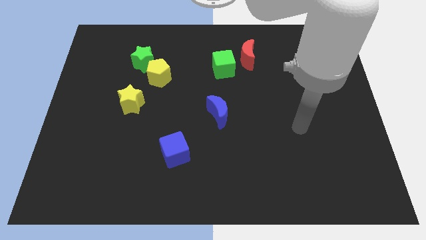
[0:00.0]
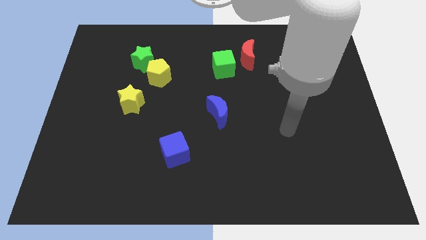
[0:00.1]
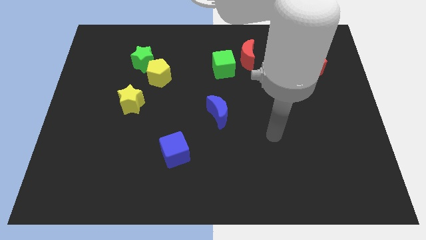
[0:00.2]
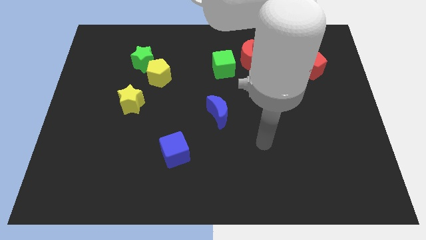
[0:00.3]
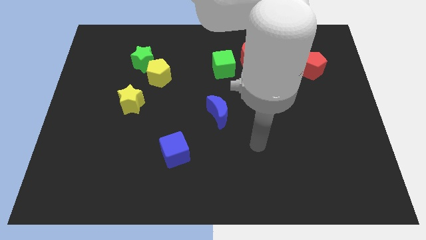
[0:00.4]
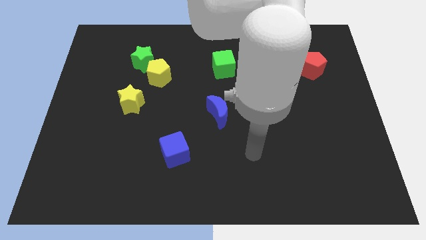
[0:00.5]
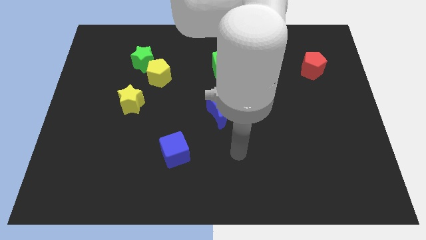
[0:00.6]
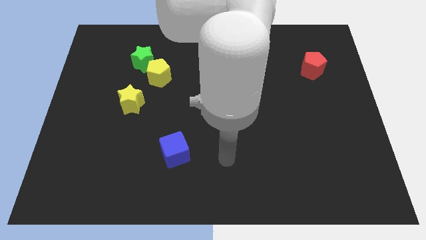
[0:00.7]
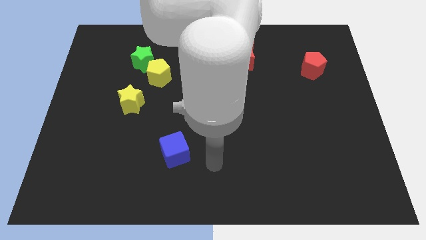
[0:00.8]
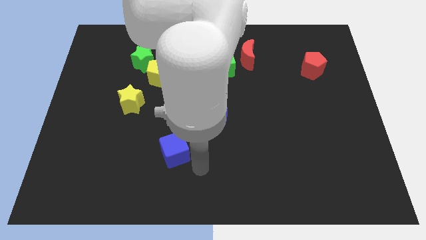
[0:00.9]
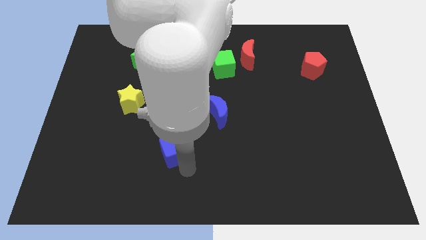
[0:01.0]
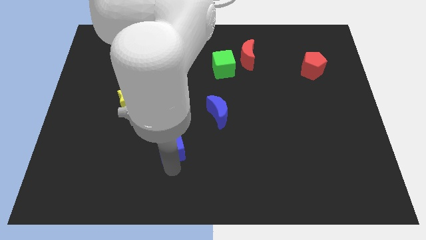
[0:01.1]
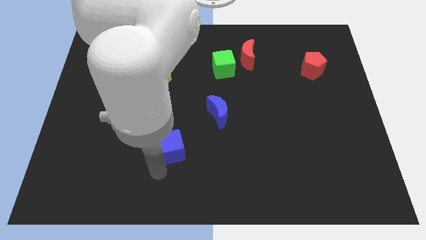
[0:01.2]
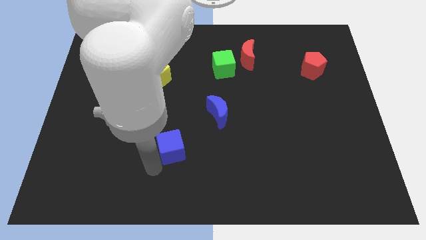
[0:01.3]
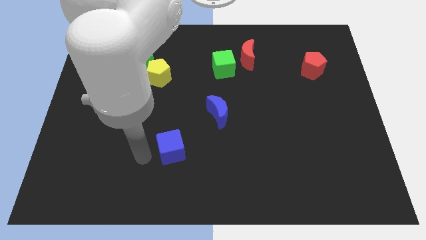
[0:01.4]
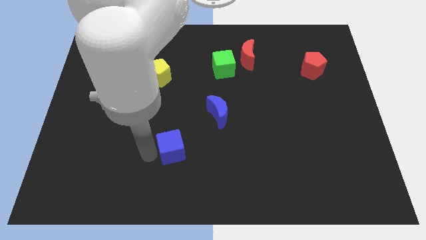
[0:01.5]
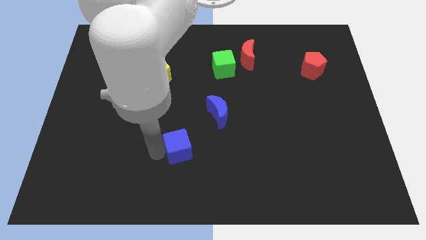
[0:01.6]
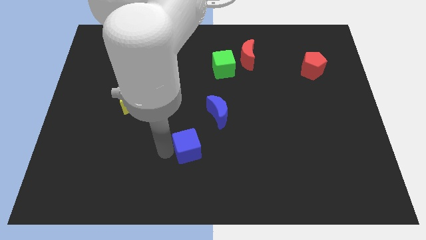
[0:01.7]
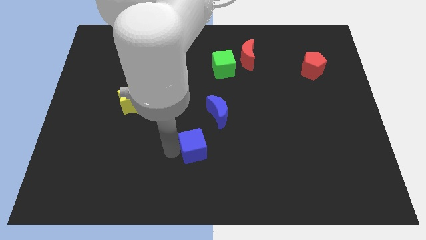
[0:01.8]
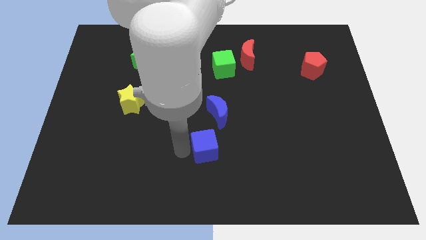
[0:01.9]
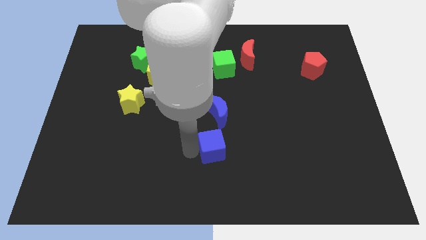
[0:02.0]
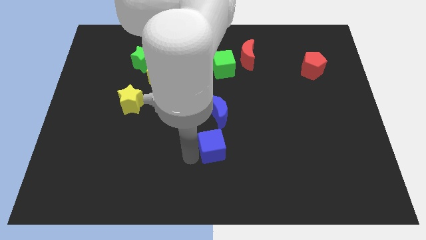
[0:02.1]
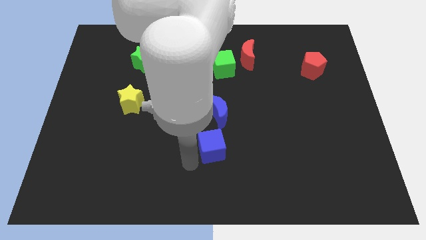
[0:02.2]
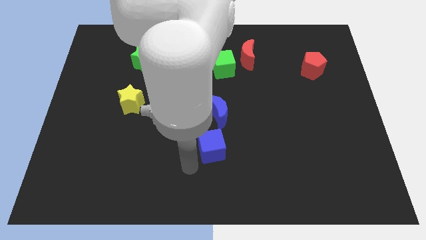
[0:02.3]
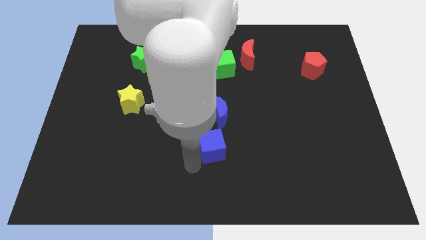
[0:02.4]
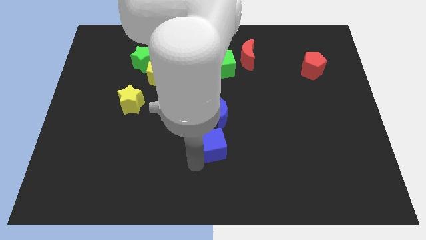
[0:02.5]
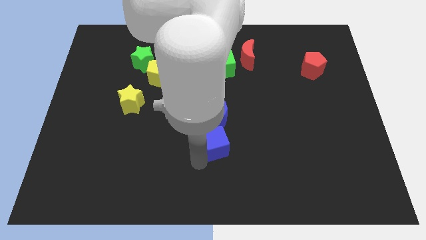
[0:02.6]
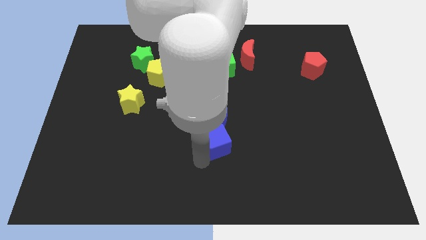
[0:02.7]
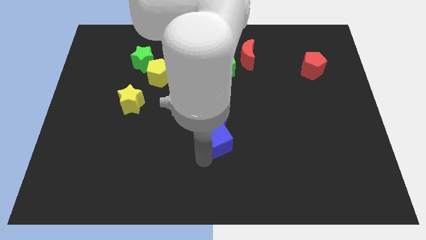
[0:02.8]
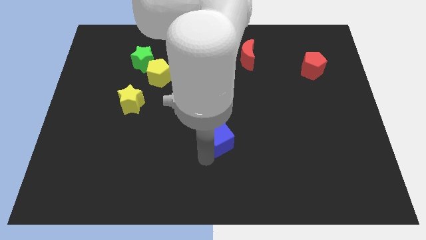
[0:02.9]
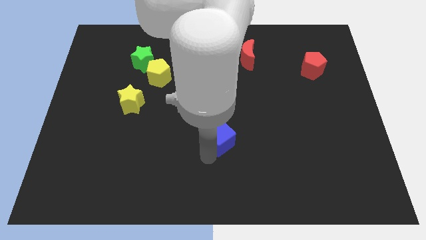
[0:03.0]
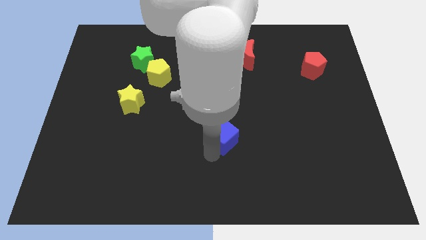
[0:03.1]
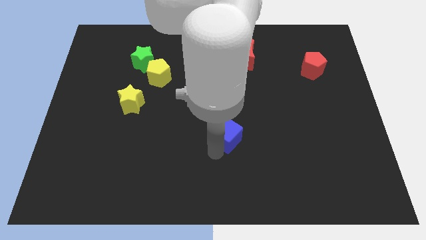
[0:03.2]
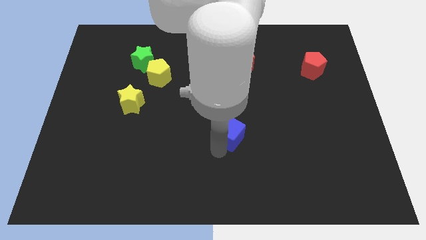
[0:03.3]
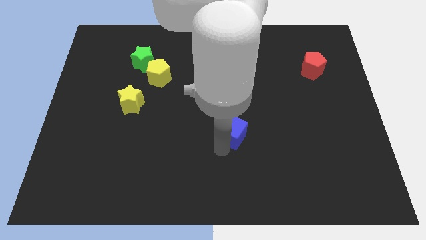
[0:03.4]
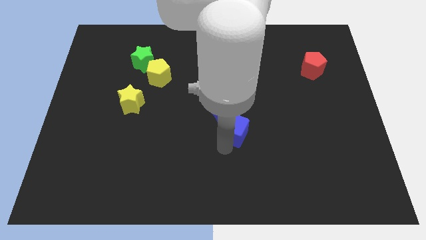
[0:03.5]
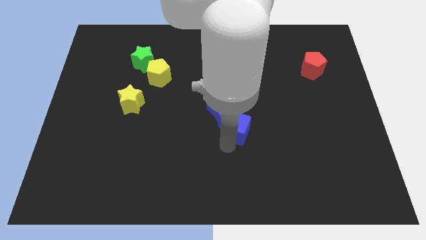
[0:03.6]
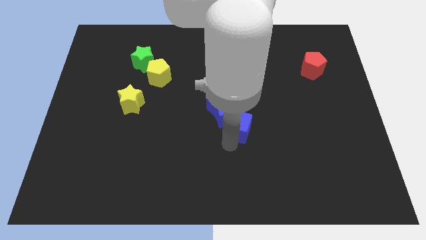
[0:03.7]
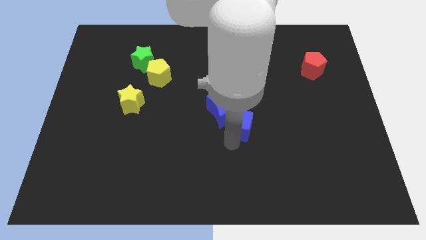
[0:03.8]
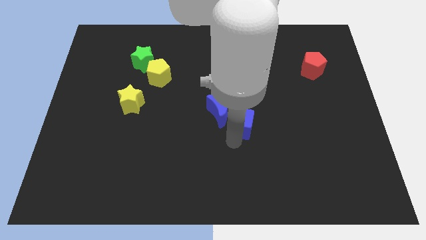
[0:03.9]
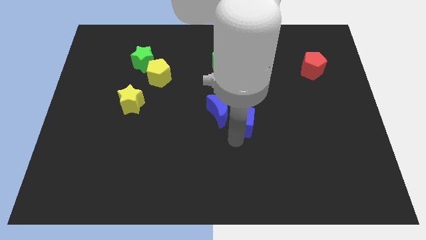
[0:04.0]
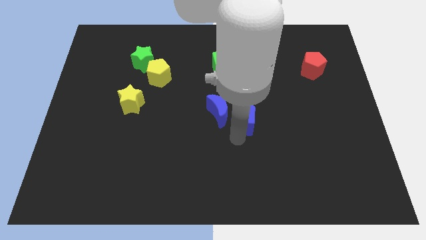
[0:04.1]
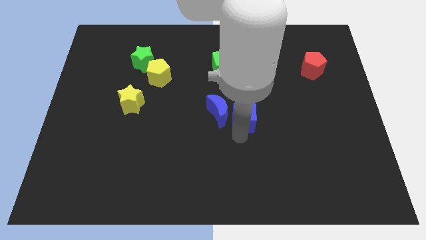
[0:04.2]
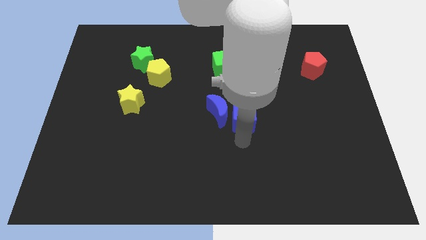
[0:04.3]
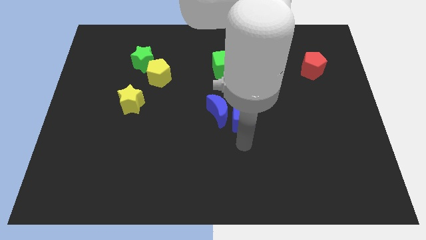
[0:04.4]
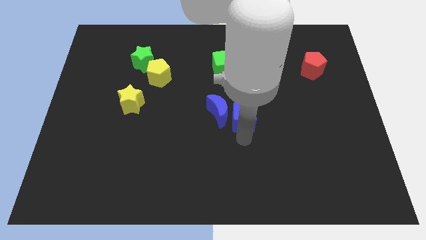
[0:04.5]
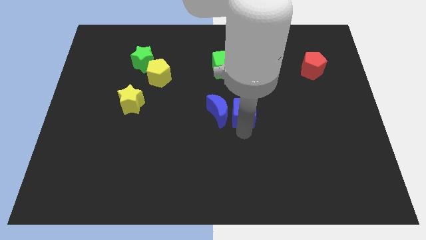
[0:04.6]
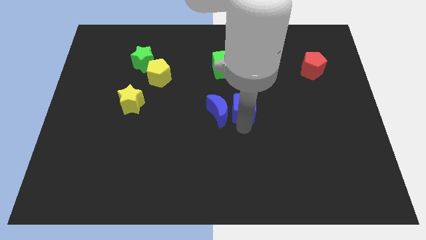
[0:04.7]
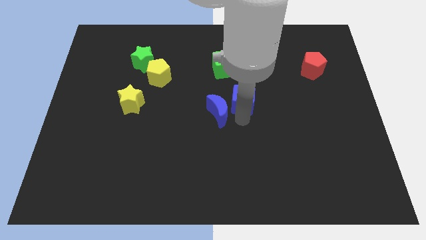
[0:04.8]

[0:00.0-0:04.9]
push the blue cube diagonally upwards and to the right

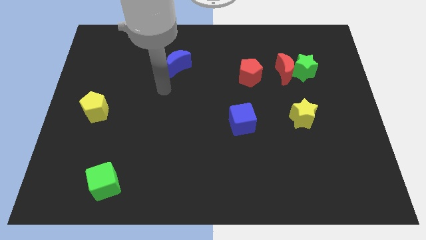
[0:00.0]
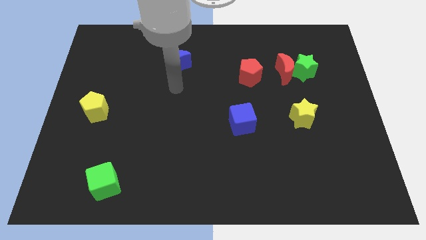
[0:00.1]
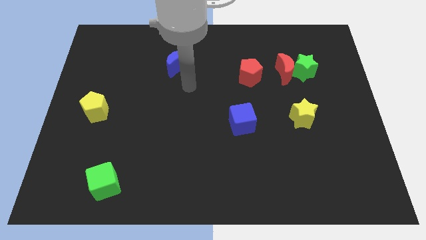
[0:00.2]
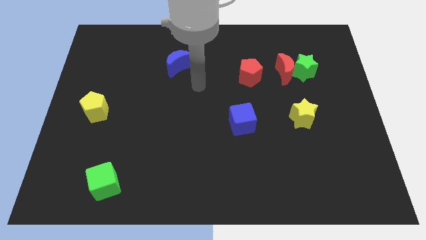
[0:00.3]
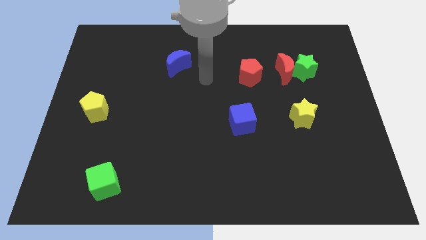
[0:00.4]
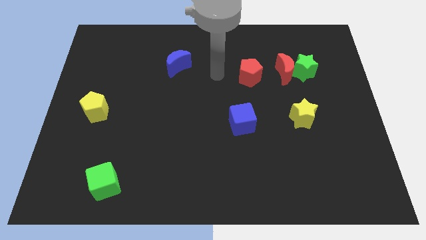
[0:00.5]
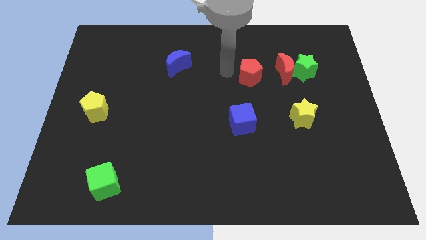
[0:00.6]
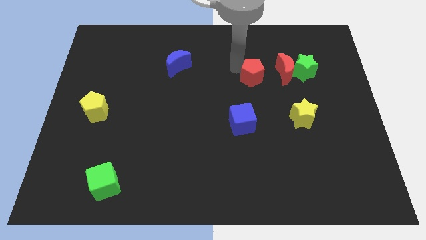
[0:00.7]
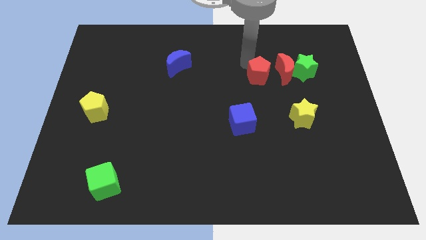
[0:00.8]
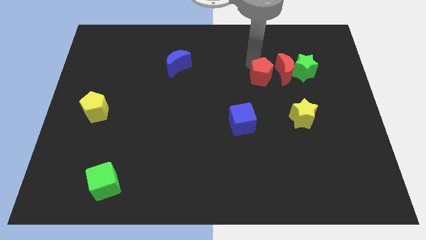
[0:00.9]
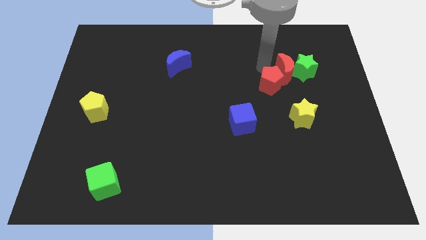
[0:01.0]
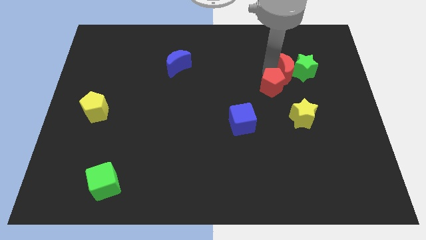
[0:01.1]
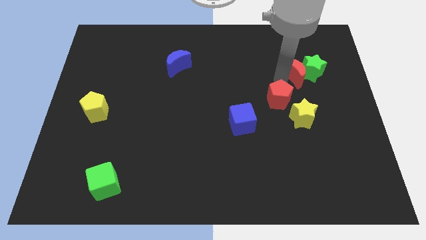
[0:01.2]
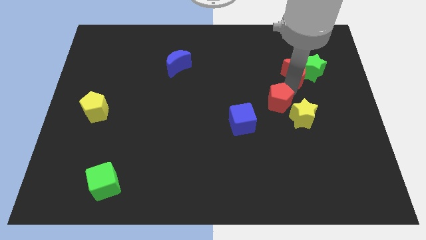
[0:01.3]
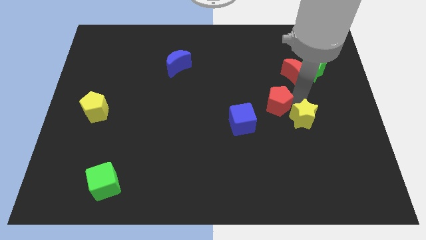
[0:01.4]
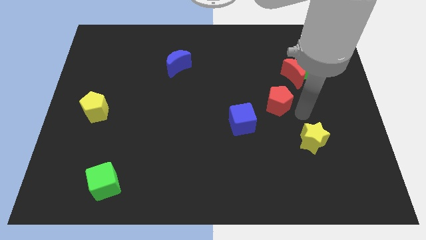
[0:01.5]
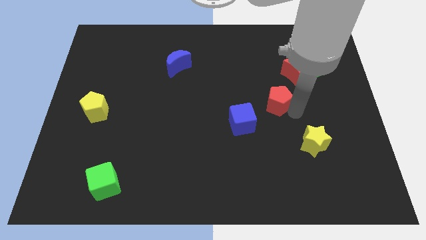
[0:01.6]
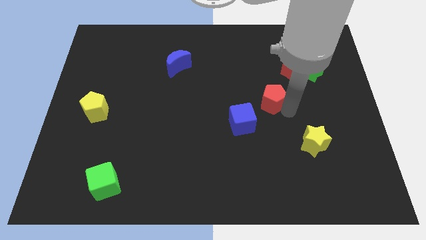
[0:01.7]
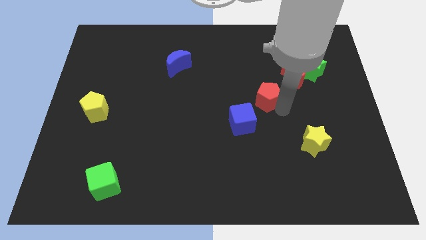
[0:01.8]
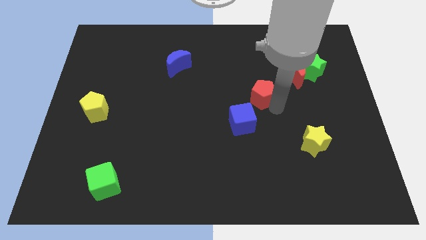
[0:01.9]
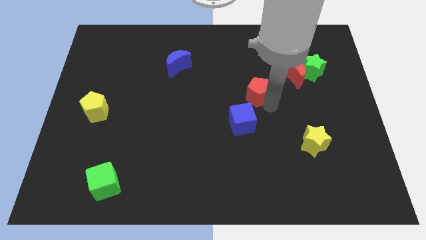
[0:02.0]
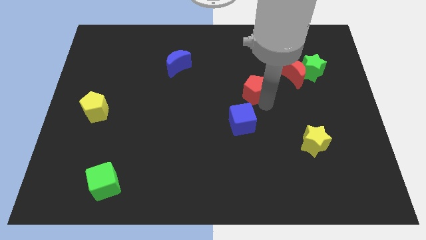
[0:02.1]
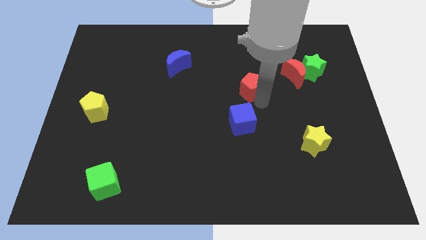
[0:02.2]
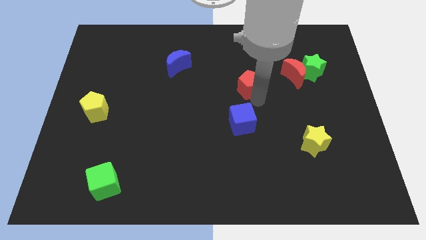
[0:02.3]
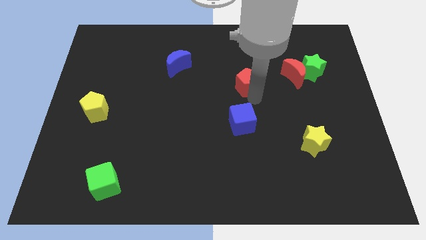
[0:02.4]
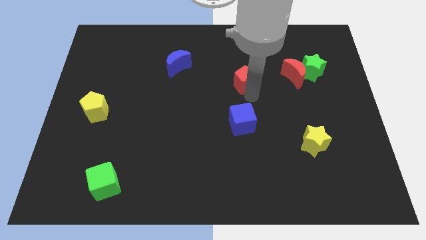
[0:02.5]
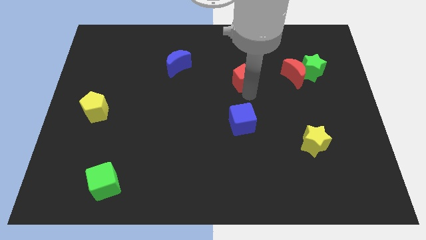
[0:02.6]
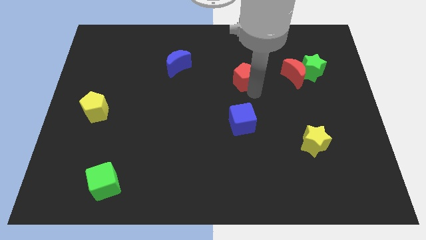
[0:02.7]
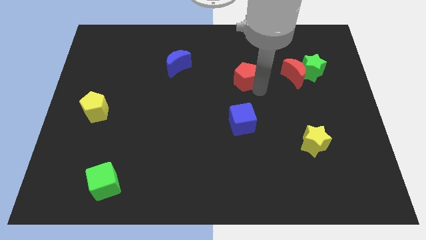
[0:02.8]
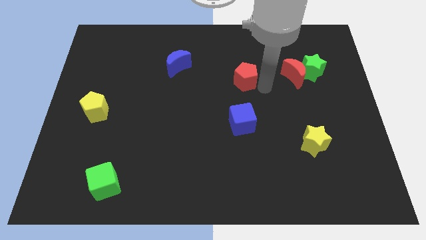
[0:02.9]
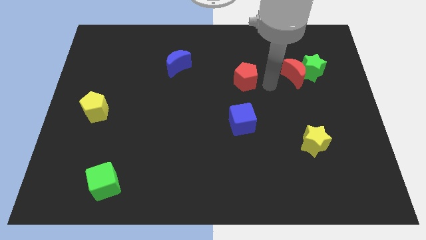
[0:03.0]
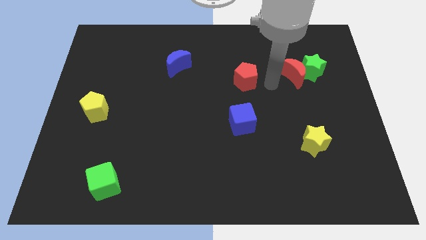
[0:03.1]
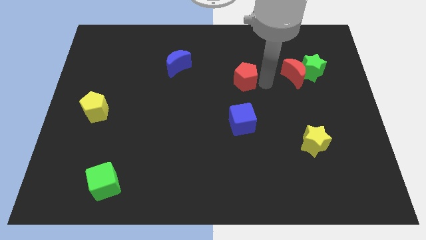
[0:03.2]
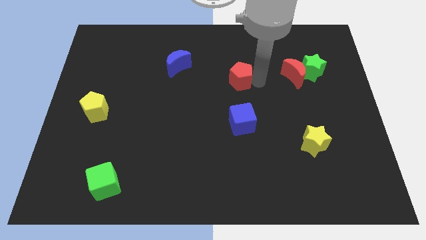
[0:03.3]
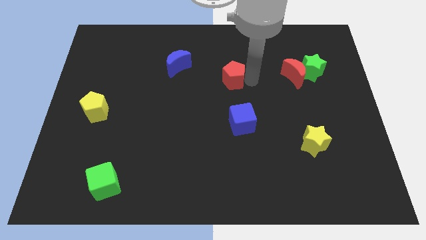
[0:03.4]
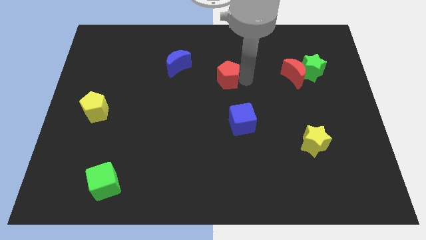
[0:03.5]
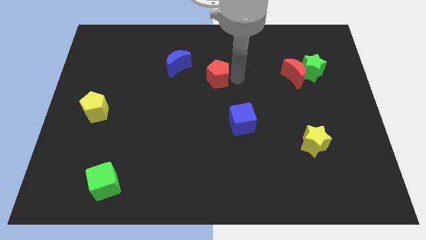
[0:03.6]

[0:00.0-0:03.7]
move the red pentagon to the left a little
